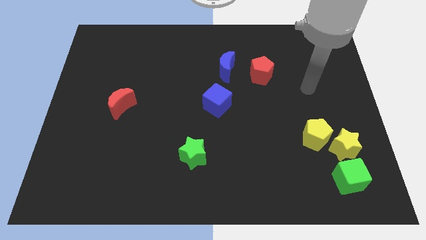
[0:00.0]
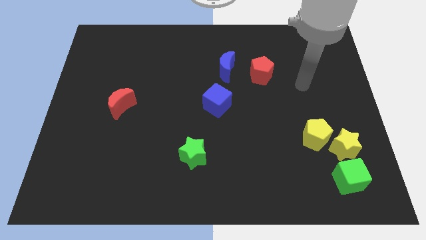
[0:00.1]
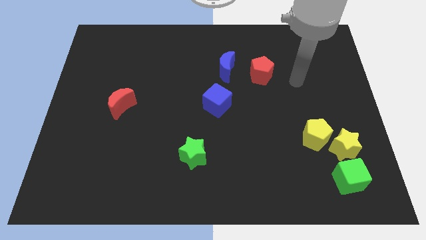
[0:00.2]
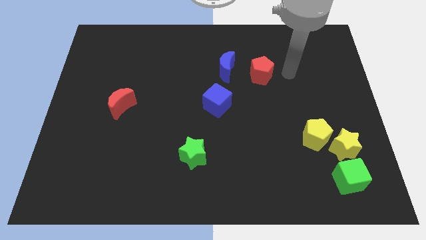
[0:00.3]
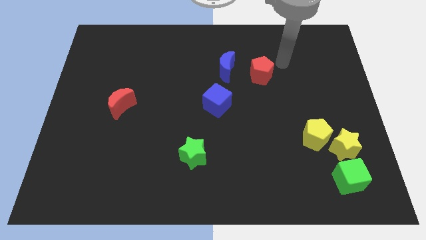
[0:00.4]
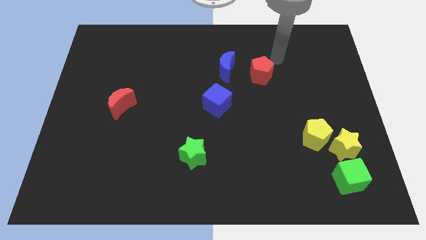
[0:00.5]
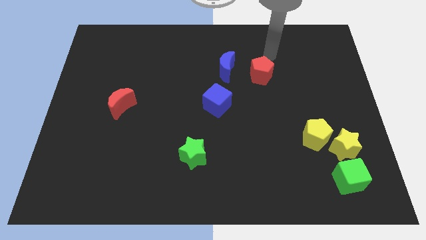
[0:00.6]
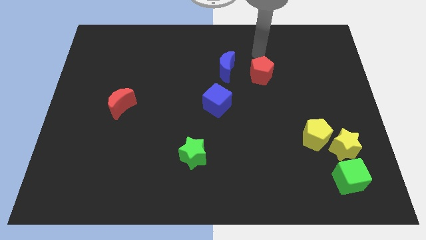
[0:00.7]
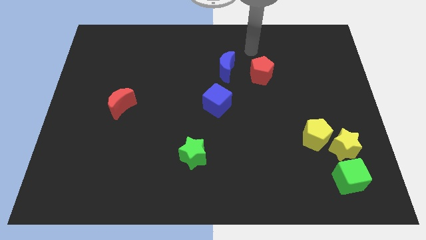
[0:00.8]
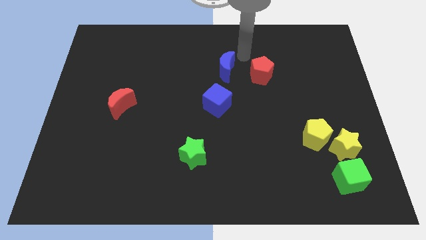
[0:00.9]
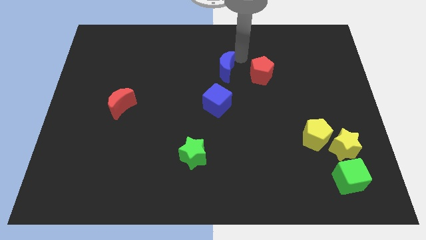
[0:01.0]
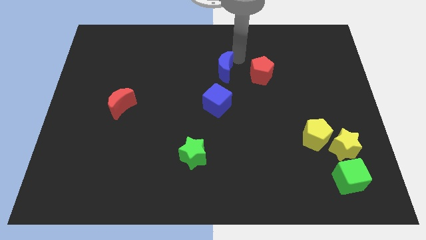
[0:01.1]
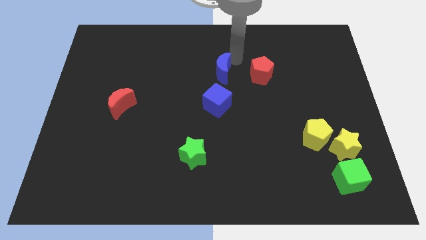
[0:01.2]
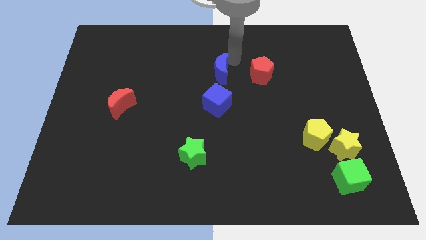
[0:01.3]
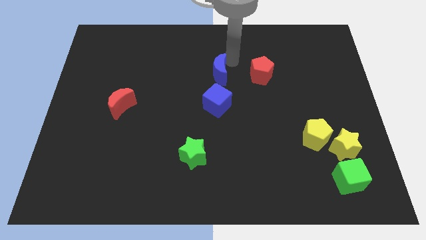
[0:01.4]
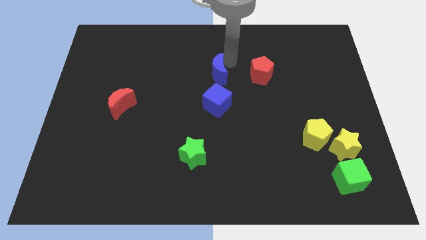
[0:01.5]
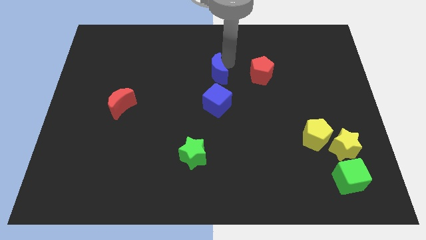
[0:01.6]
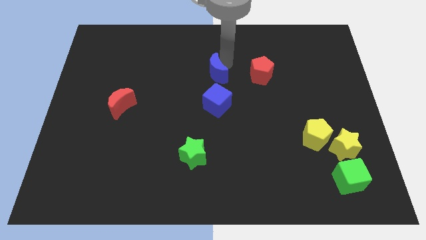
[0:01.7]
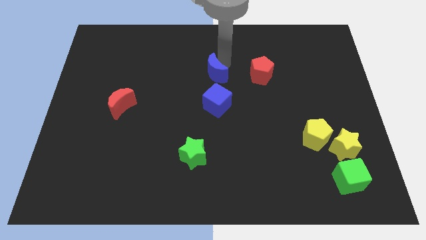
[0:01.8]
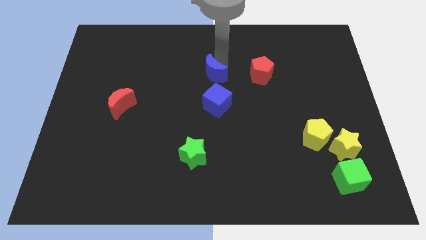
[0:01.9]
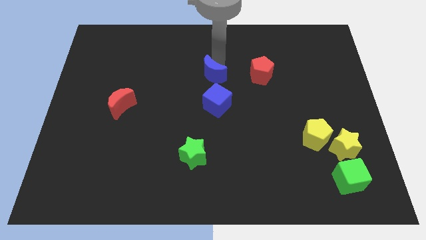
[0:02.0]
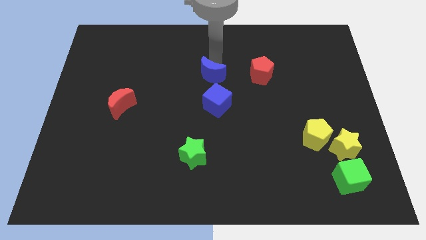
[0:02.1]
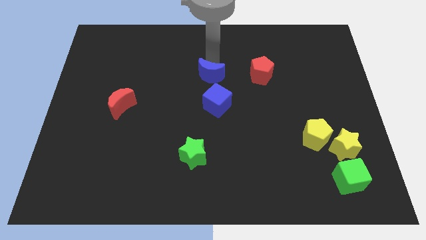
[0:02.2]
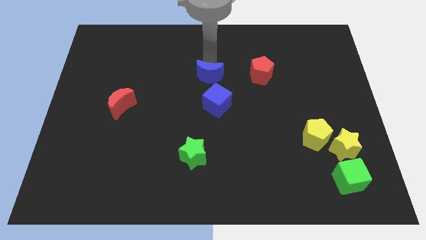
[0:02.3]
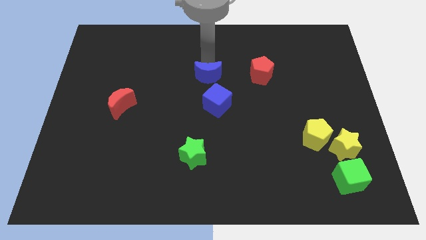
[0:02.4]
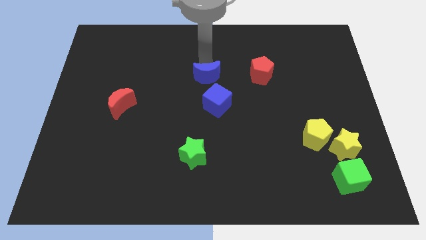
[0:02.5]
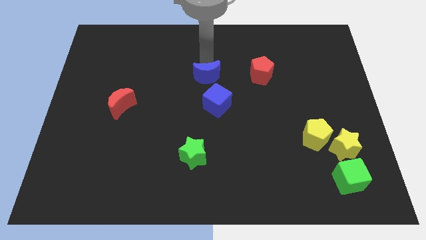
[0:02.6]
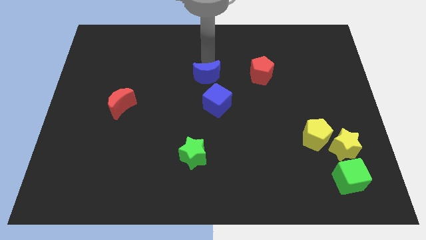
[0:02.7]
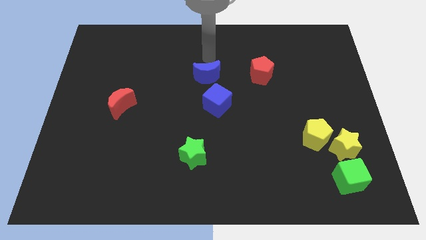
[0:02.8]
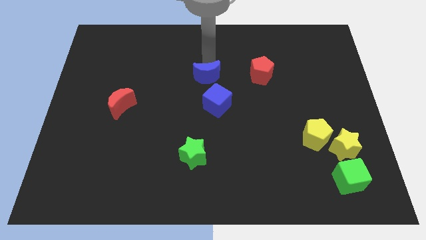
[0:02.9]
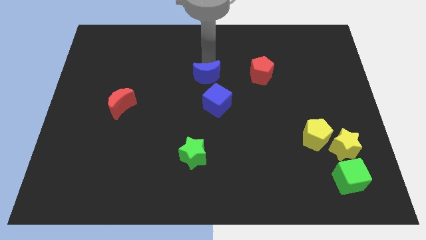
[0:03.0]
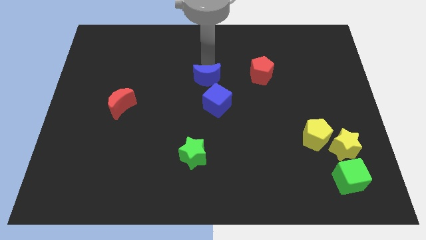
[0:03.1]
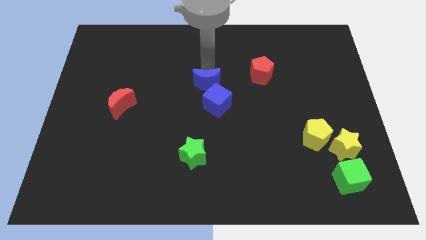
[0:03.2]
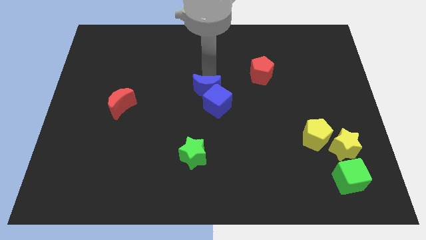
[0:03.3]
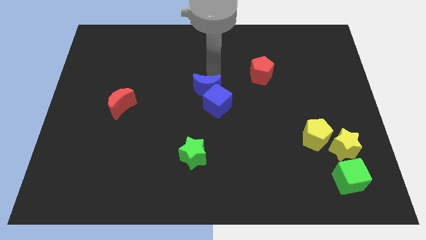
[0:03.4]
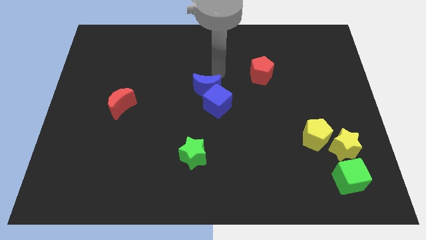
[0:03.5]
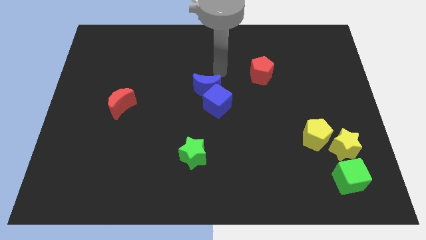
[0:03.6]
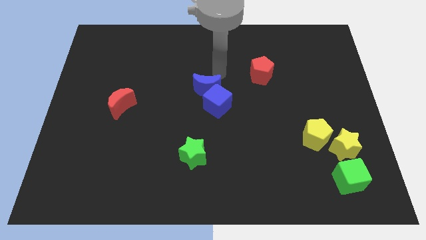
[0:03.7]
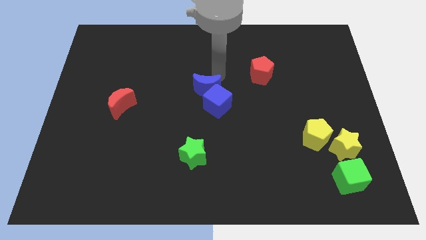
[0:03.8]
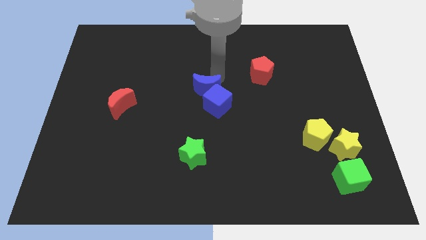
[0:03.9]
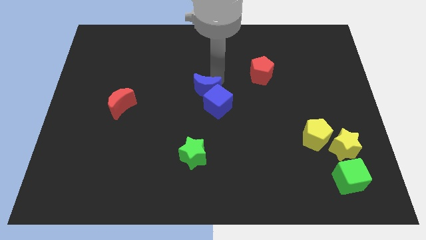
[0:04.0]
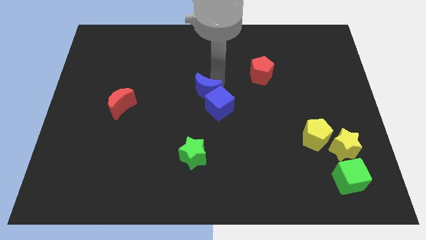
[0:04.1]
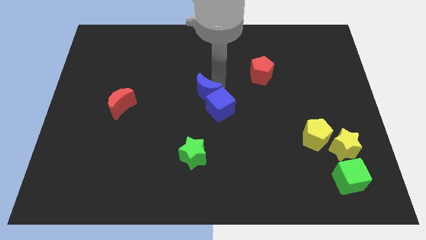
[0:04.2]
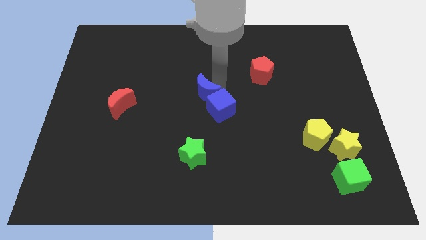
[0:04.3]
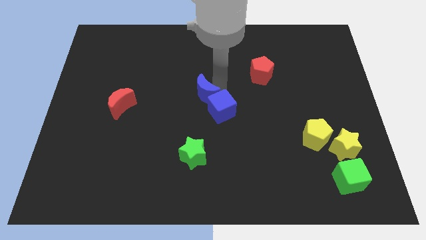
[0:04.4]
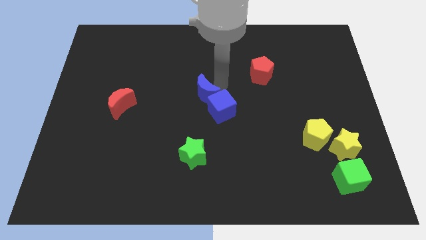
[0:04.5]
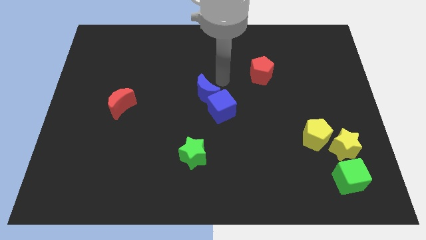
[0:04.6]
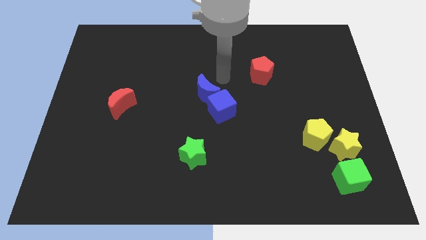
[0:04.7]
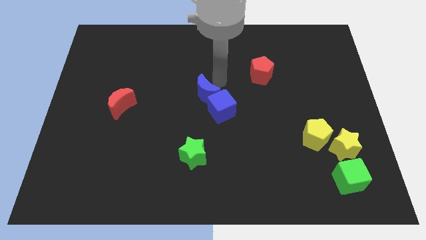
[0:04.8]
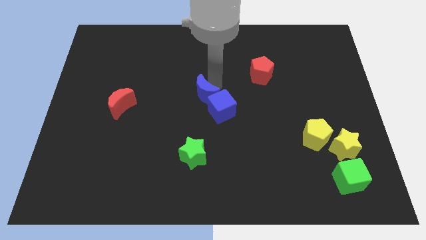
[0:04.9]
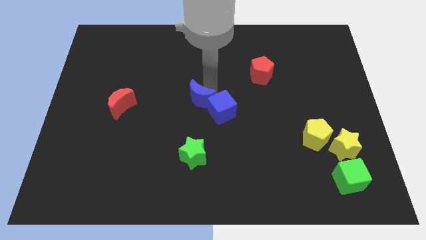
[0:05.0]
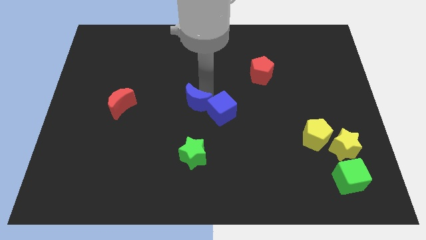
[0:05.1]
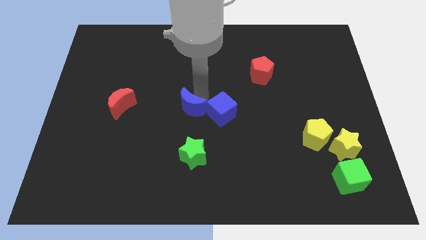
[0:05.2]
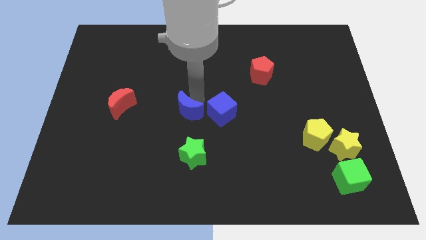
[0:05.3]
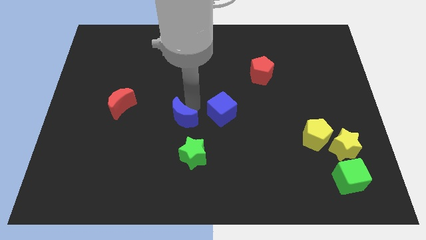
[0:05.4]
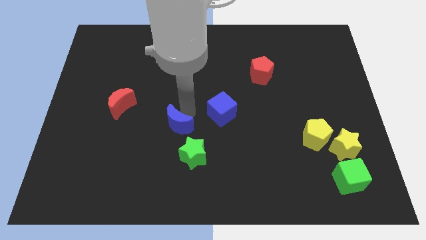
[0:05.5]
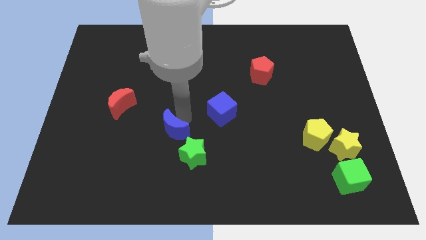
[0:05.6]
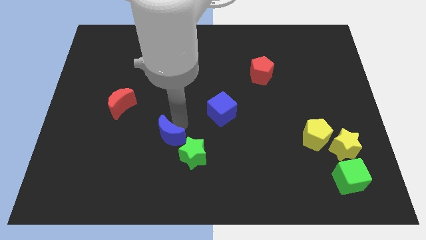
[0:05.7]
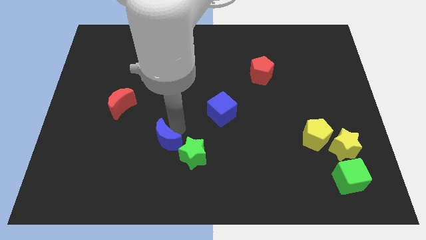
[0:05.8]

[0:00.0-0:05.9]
push the blue moon to the left side of the green star

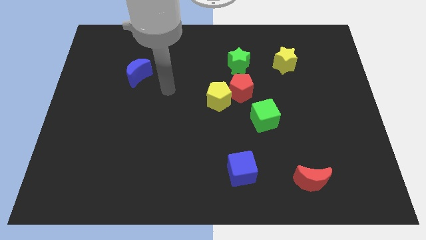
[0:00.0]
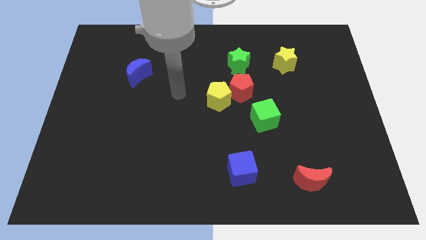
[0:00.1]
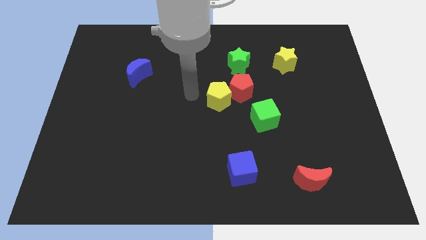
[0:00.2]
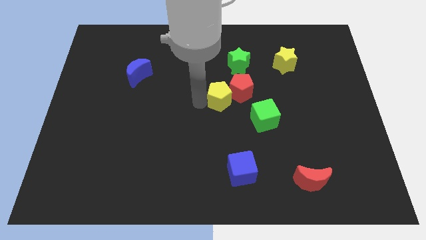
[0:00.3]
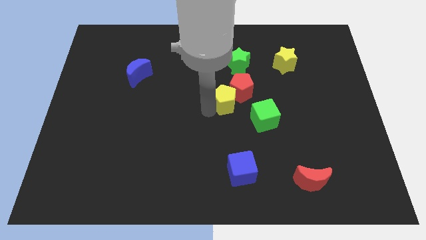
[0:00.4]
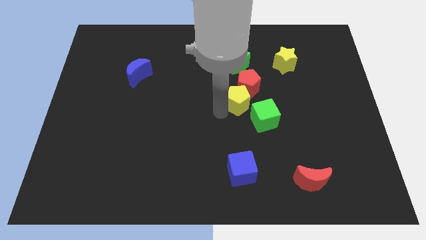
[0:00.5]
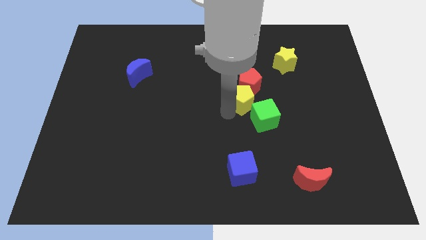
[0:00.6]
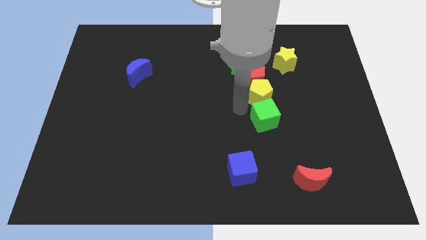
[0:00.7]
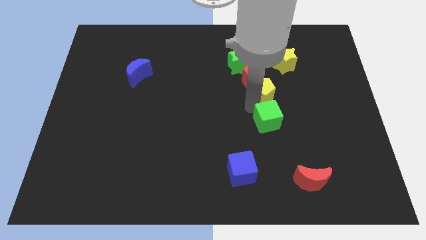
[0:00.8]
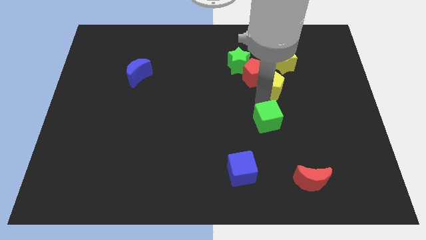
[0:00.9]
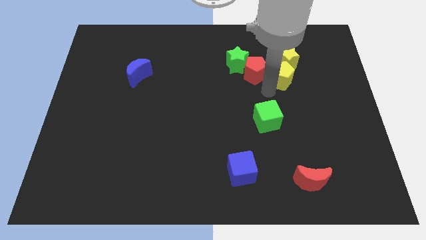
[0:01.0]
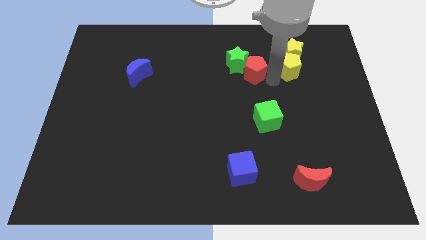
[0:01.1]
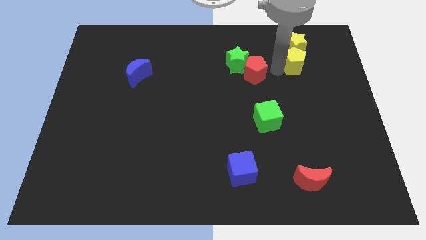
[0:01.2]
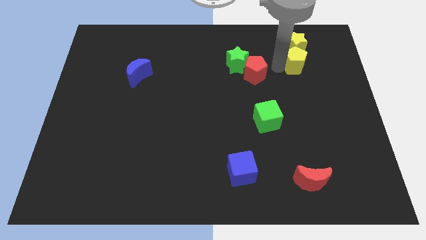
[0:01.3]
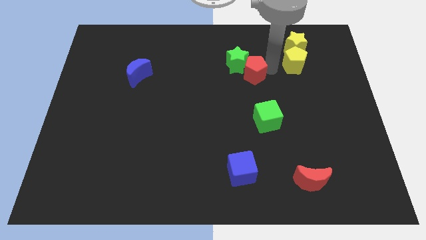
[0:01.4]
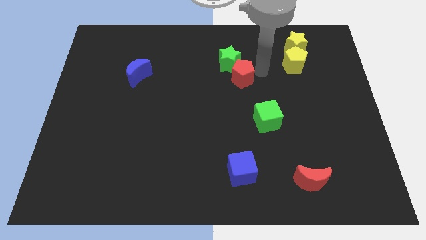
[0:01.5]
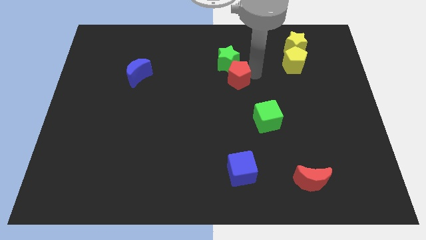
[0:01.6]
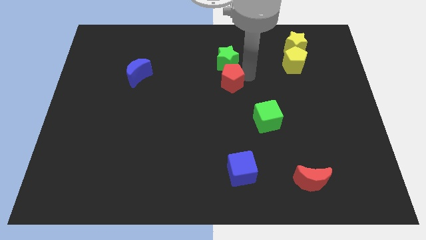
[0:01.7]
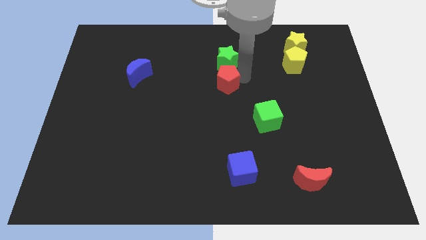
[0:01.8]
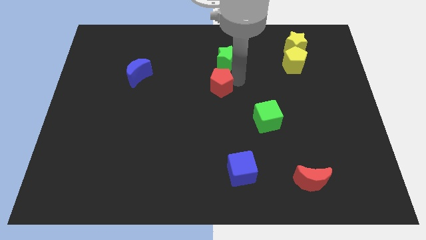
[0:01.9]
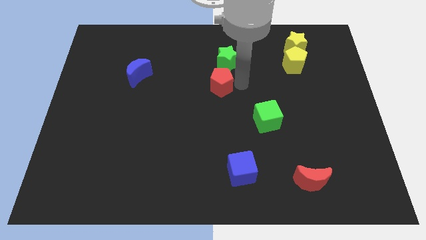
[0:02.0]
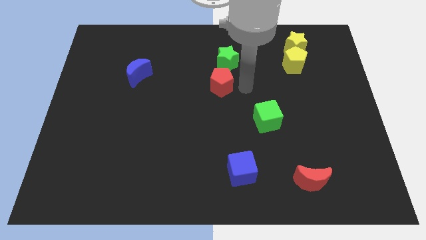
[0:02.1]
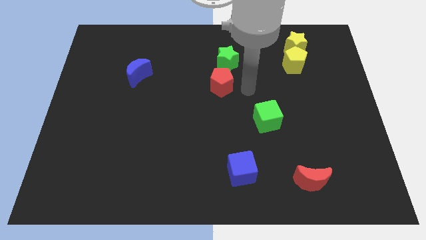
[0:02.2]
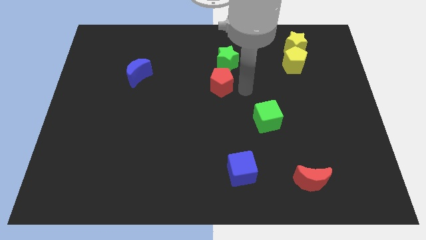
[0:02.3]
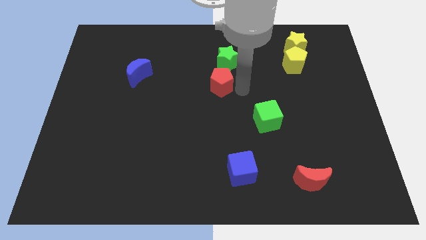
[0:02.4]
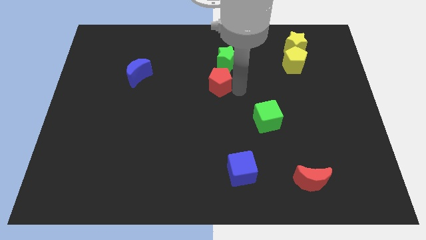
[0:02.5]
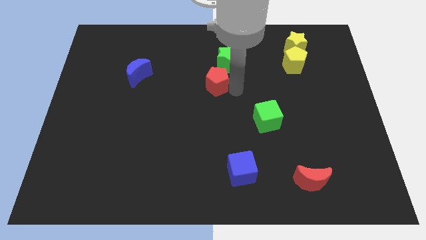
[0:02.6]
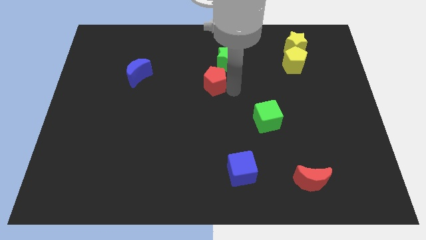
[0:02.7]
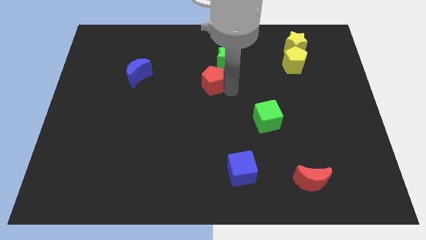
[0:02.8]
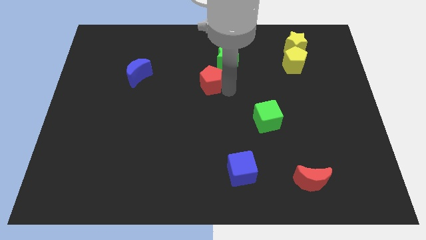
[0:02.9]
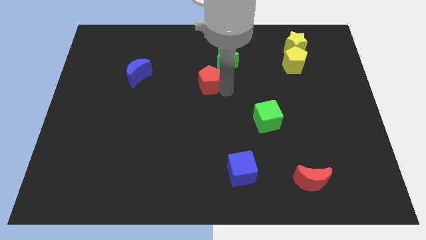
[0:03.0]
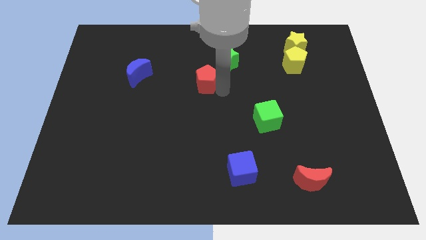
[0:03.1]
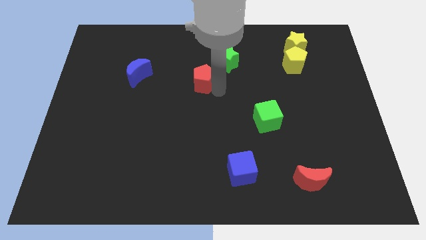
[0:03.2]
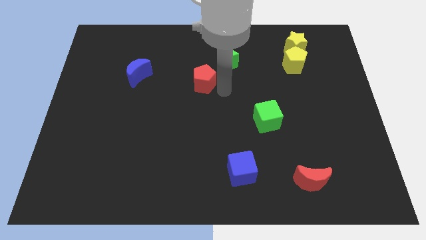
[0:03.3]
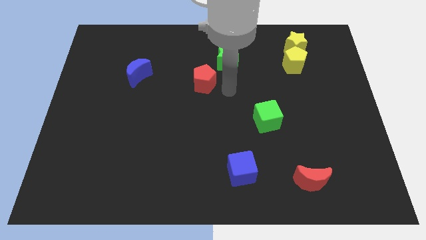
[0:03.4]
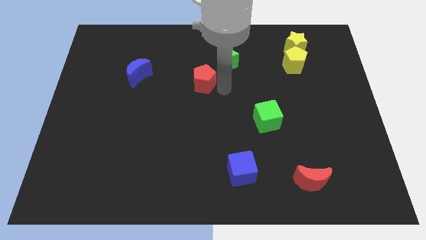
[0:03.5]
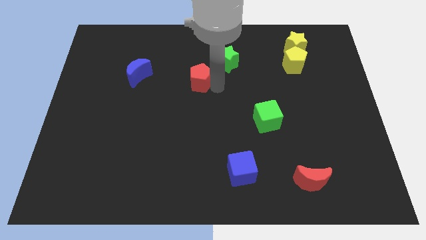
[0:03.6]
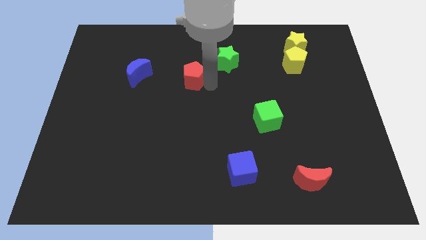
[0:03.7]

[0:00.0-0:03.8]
slide the red pentagon to the right of the blue moon
